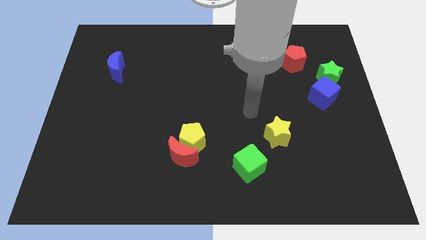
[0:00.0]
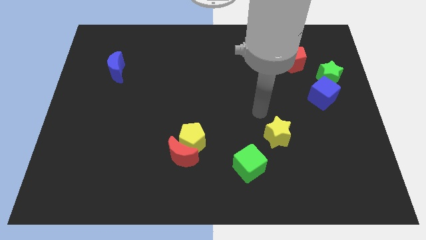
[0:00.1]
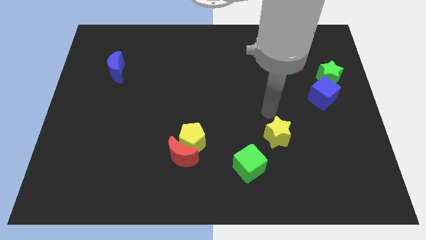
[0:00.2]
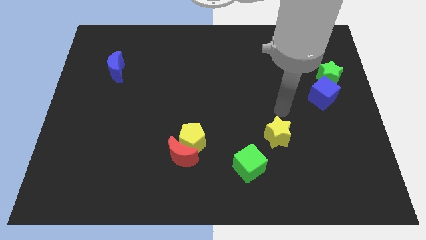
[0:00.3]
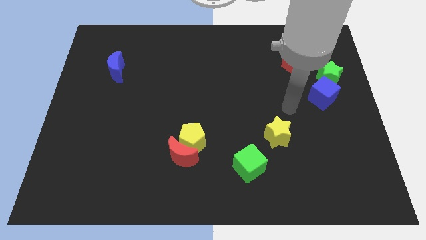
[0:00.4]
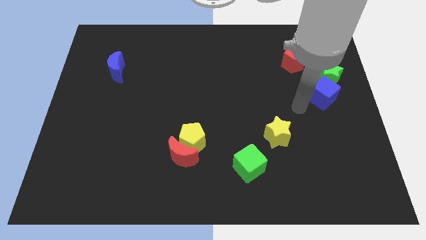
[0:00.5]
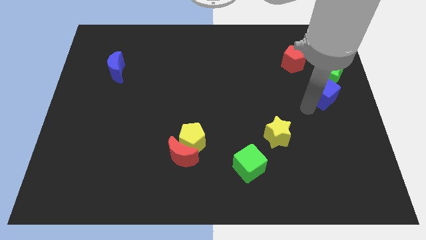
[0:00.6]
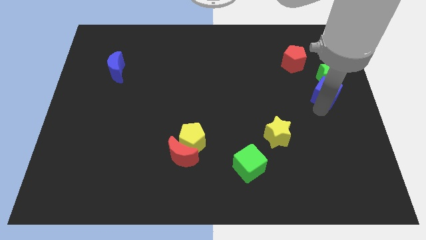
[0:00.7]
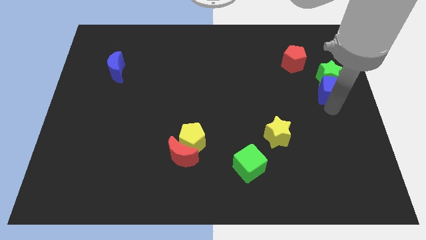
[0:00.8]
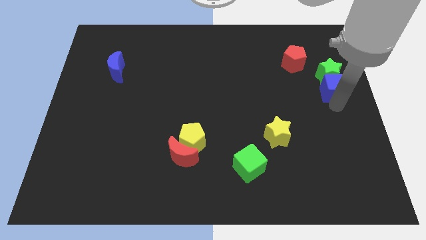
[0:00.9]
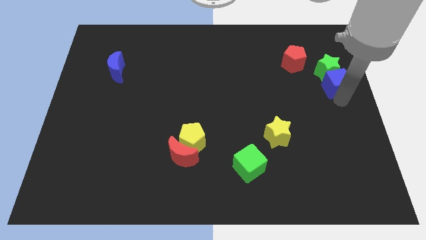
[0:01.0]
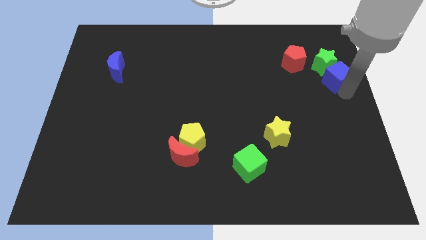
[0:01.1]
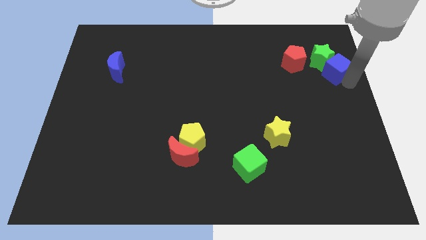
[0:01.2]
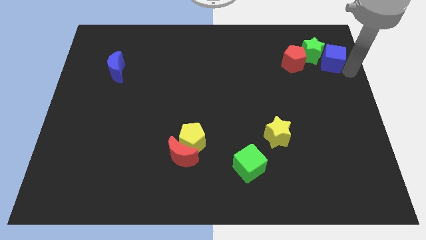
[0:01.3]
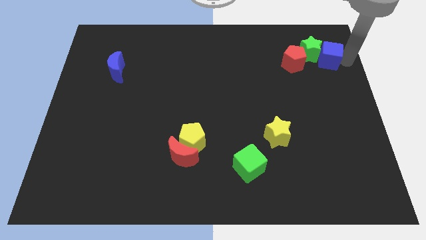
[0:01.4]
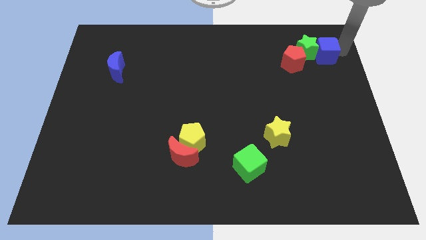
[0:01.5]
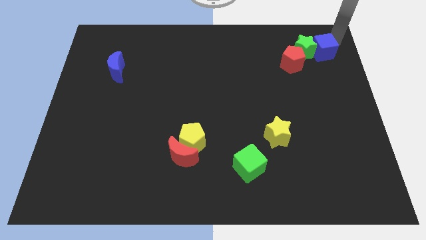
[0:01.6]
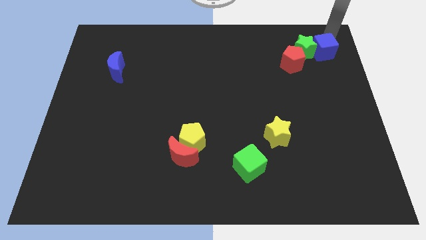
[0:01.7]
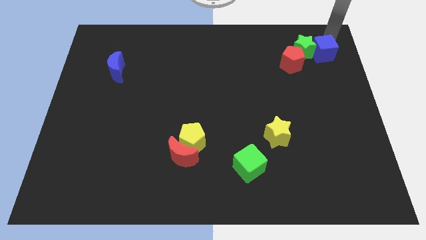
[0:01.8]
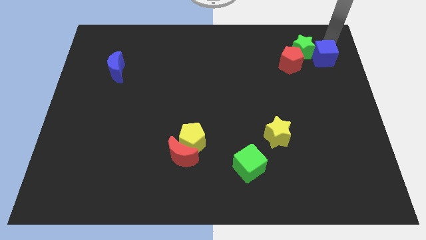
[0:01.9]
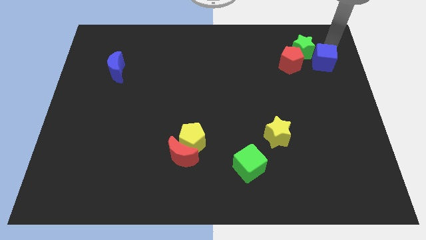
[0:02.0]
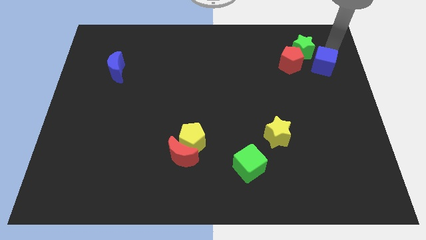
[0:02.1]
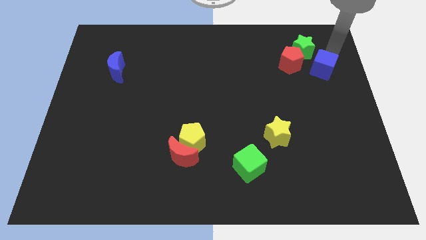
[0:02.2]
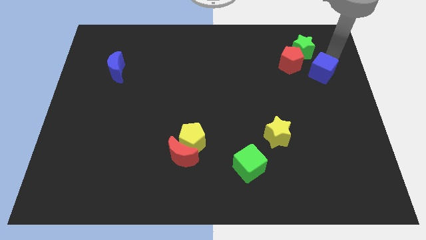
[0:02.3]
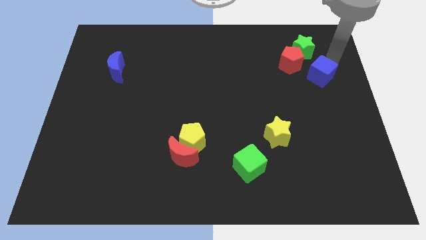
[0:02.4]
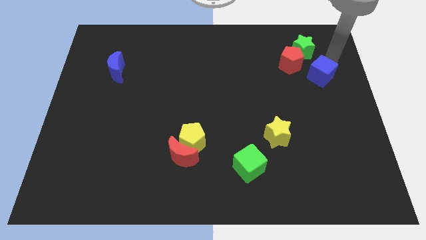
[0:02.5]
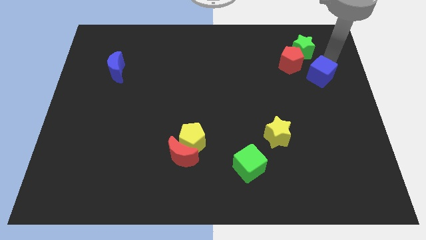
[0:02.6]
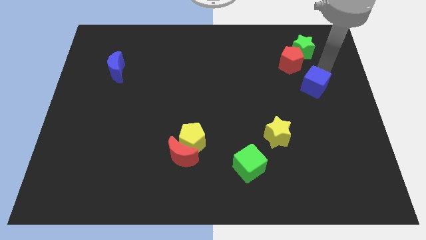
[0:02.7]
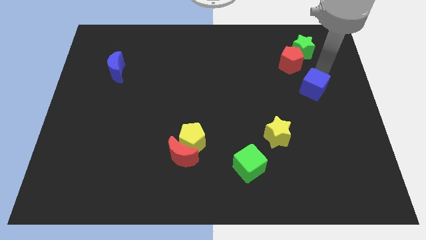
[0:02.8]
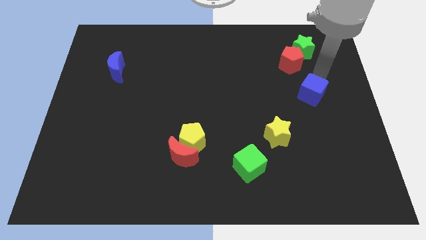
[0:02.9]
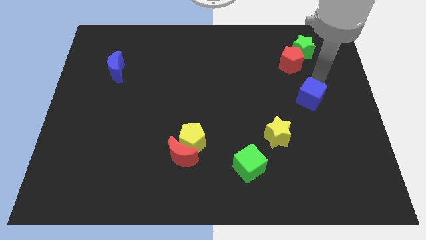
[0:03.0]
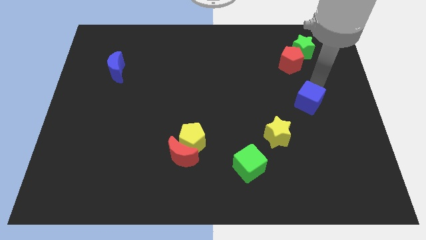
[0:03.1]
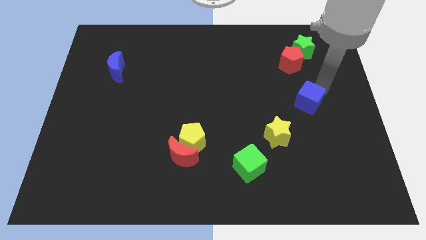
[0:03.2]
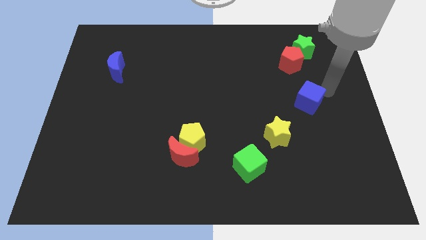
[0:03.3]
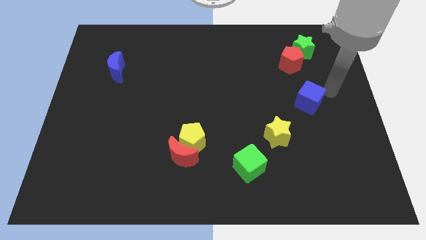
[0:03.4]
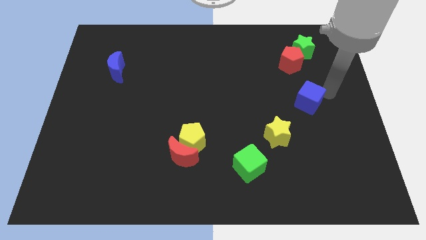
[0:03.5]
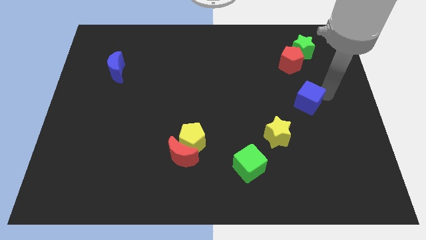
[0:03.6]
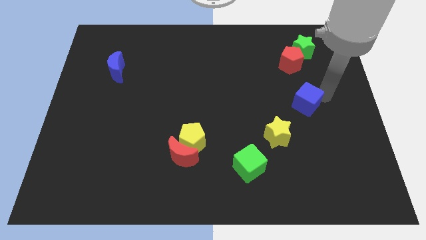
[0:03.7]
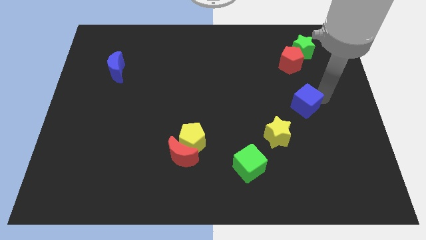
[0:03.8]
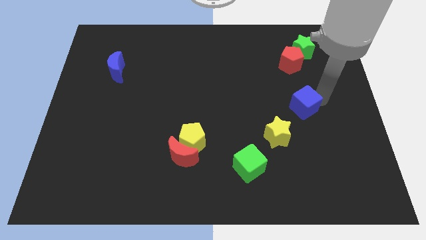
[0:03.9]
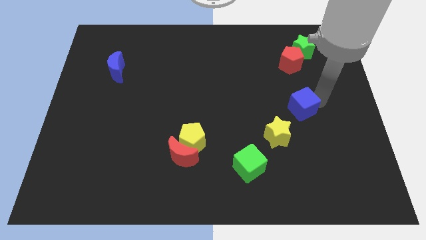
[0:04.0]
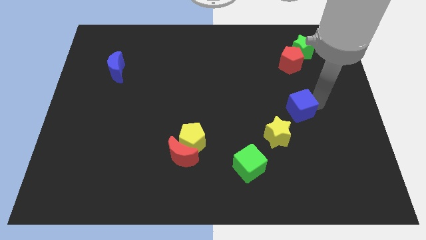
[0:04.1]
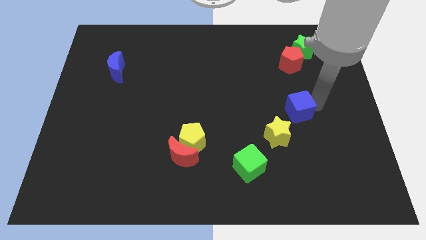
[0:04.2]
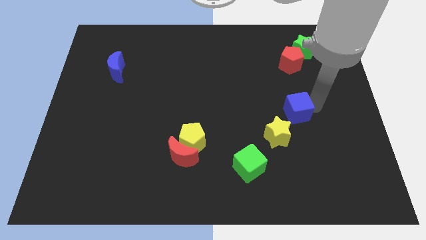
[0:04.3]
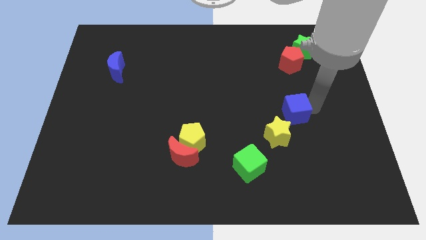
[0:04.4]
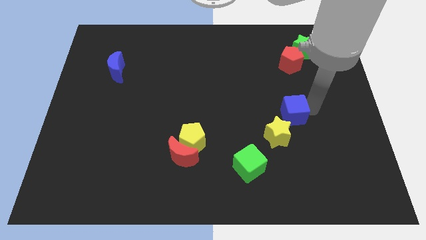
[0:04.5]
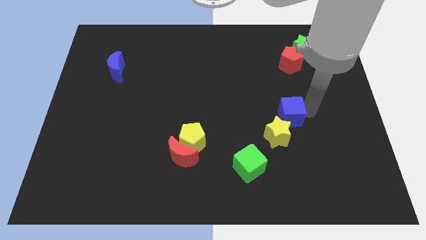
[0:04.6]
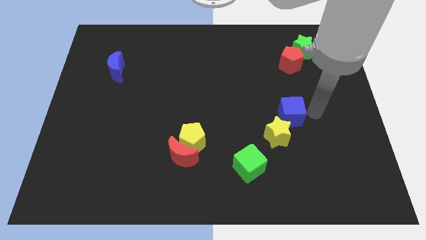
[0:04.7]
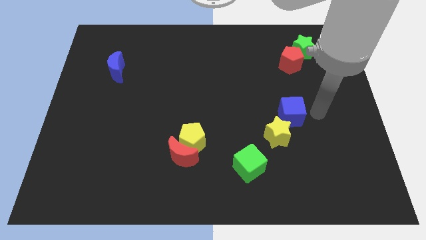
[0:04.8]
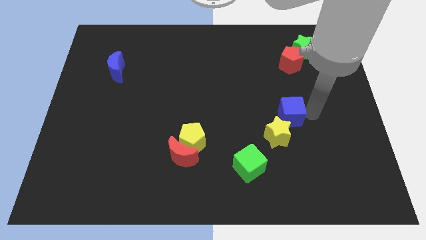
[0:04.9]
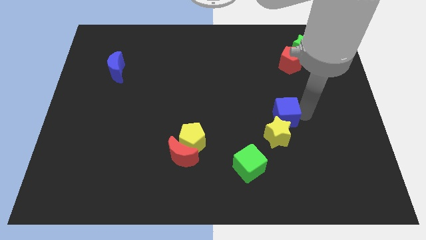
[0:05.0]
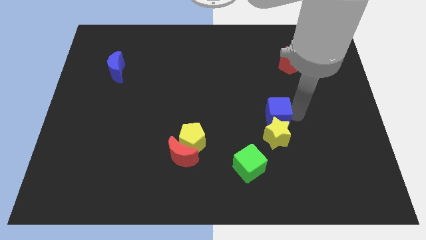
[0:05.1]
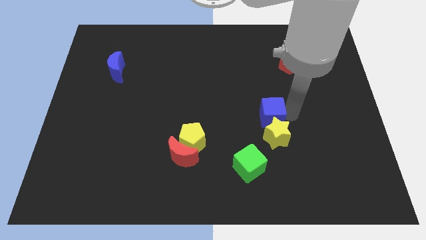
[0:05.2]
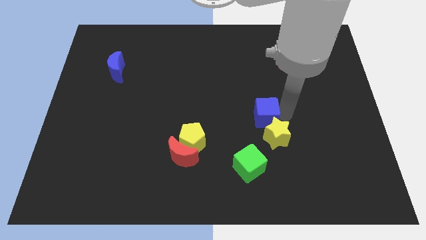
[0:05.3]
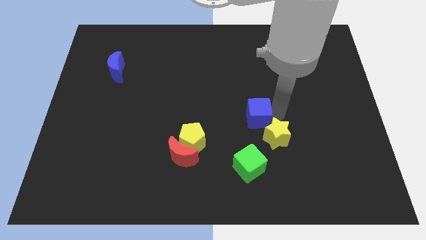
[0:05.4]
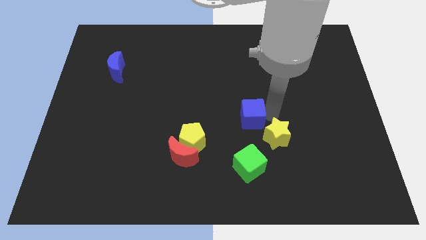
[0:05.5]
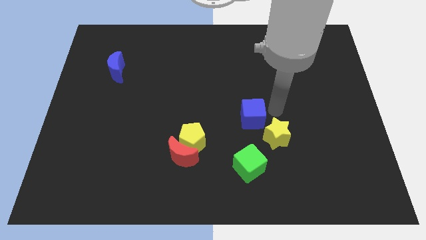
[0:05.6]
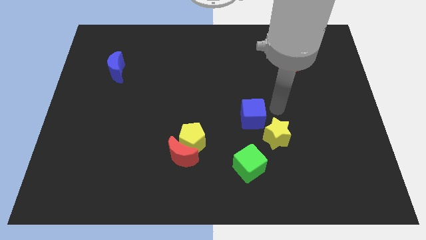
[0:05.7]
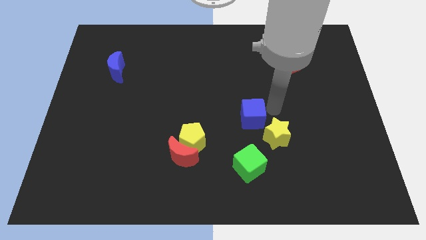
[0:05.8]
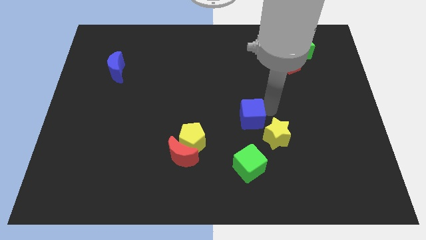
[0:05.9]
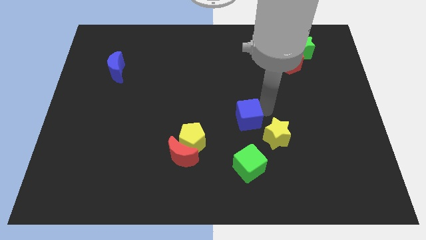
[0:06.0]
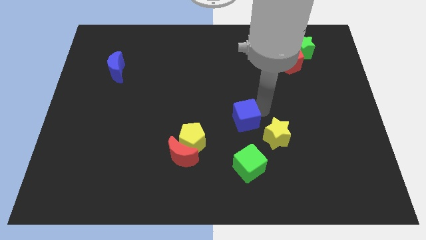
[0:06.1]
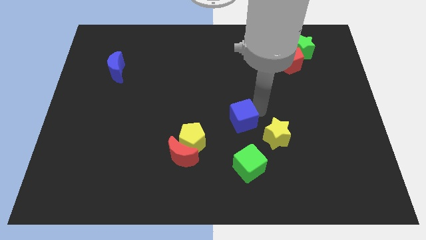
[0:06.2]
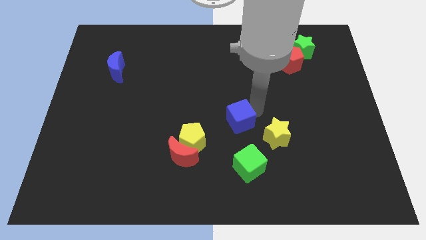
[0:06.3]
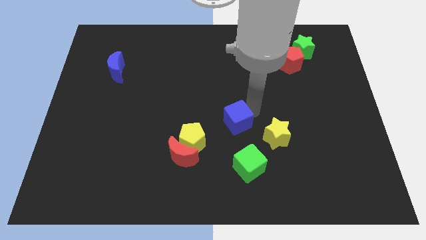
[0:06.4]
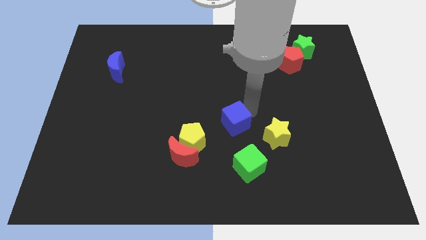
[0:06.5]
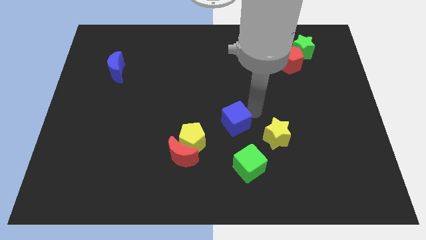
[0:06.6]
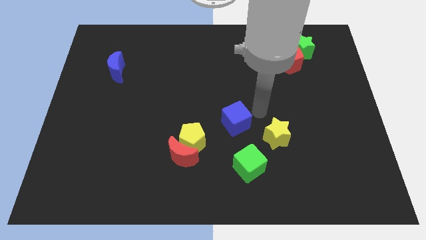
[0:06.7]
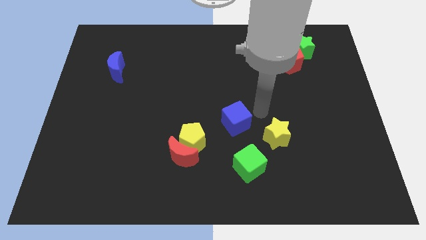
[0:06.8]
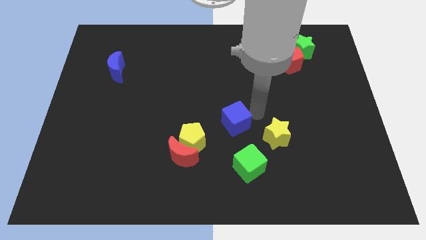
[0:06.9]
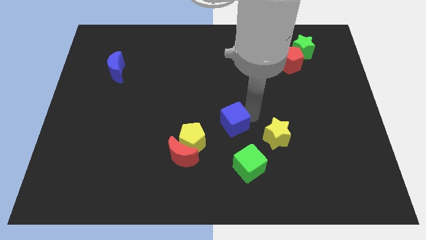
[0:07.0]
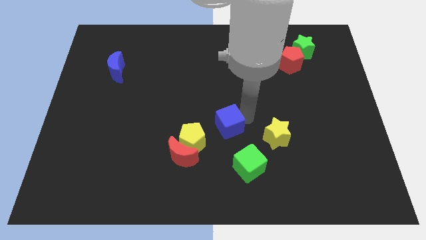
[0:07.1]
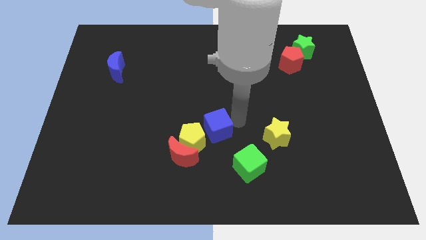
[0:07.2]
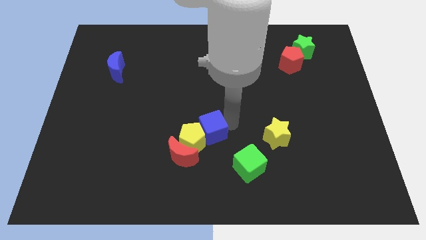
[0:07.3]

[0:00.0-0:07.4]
push the blue cube close to the yellow pentagon

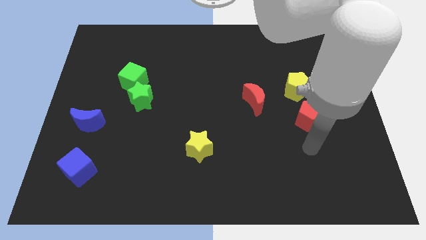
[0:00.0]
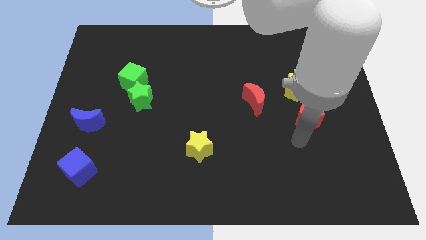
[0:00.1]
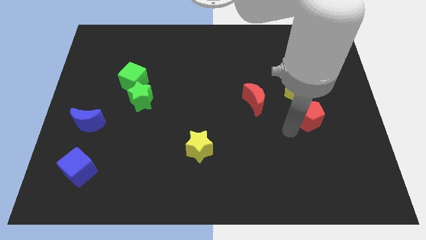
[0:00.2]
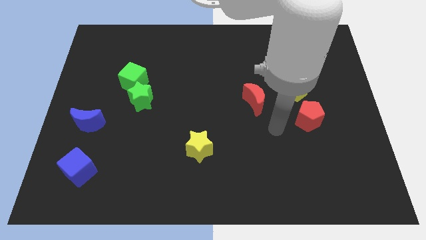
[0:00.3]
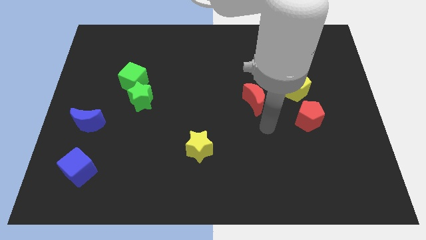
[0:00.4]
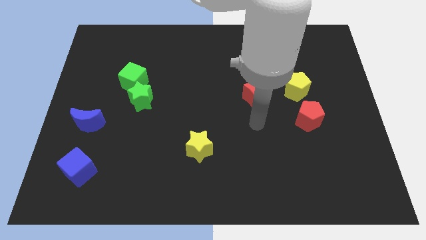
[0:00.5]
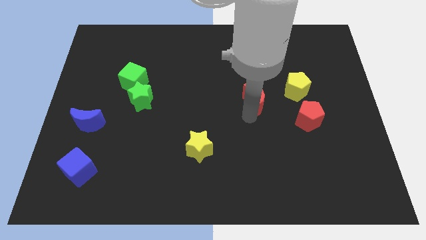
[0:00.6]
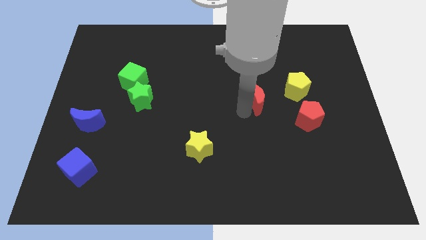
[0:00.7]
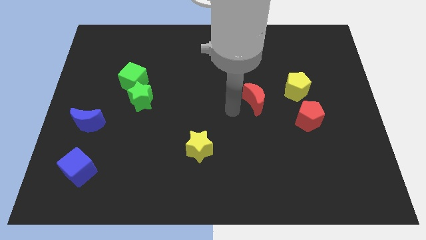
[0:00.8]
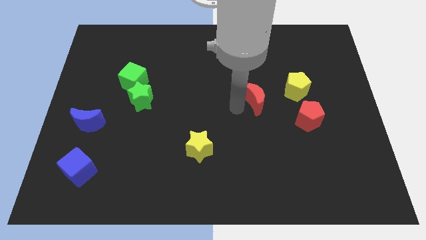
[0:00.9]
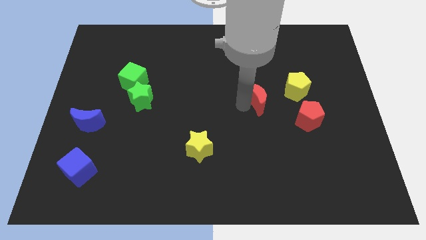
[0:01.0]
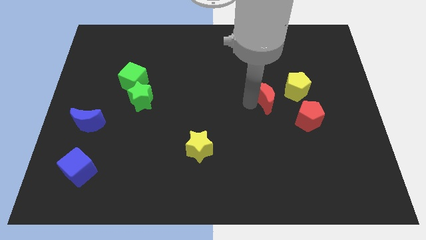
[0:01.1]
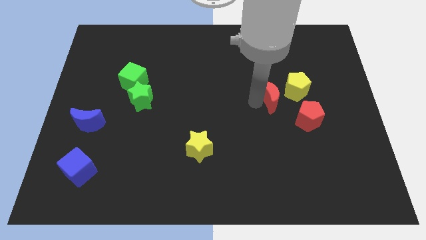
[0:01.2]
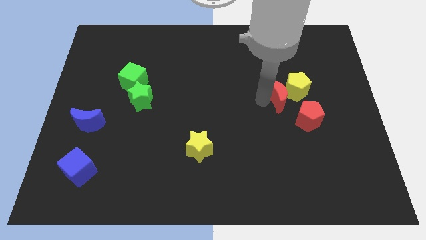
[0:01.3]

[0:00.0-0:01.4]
put the red moon to the yellow pentagon
